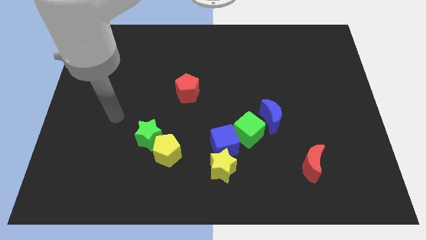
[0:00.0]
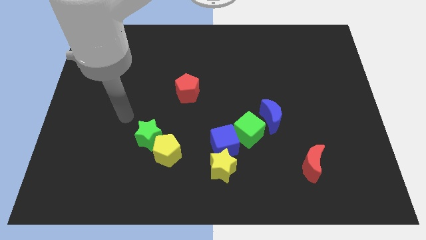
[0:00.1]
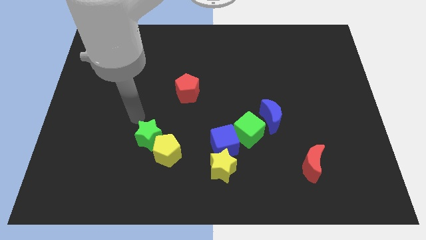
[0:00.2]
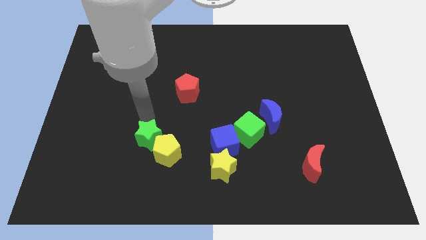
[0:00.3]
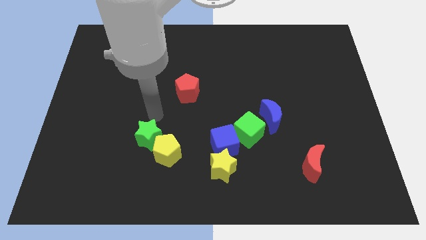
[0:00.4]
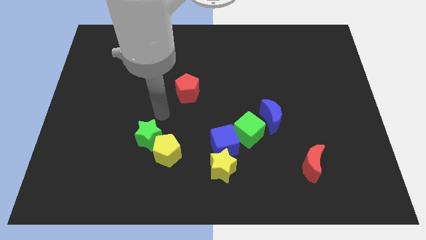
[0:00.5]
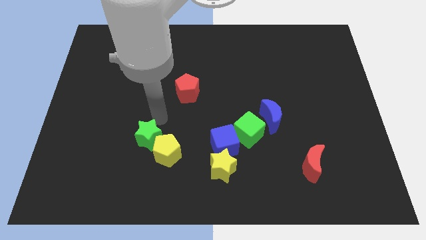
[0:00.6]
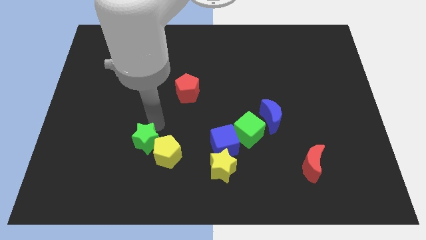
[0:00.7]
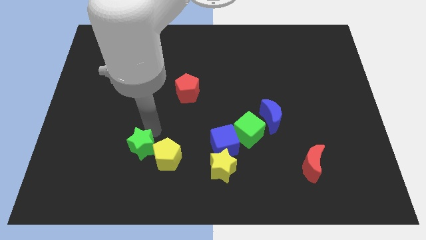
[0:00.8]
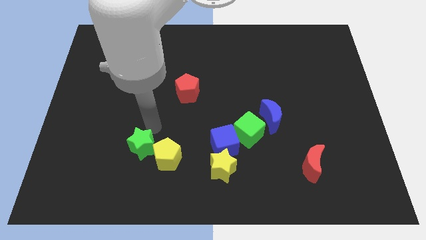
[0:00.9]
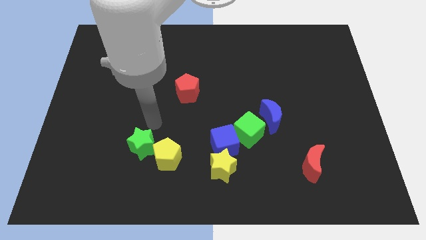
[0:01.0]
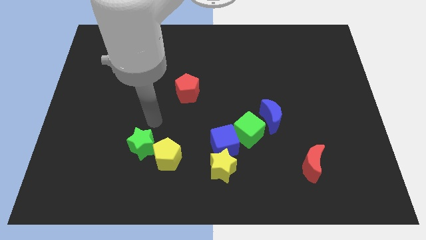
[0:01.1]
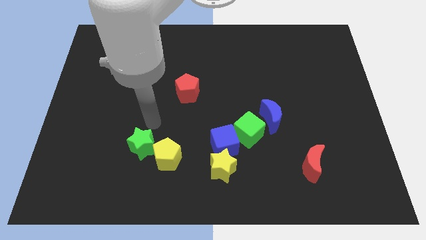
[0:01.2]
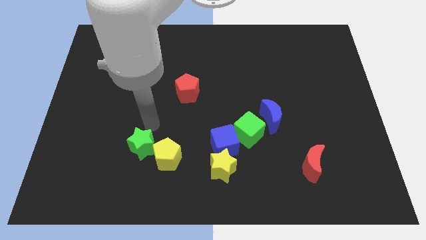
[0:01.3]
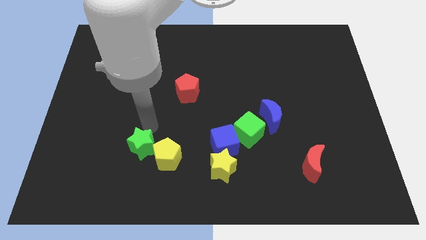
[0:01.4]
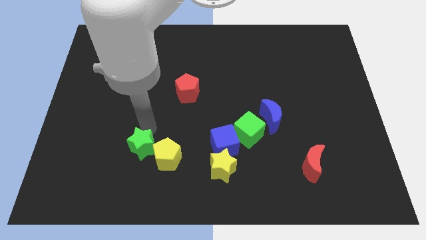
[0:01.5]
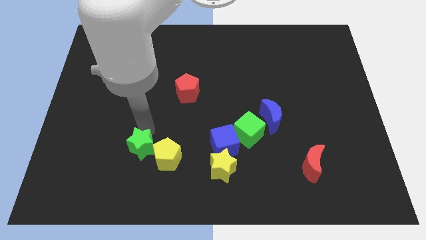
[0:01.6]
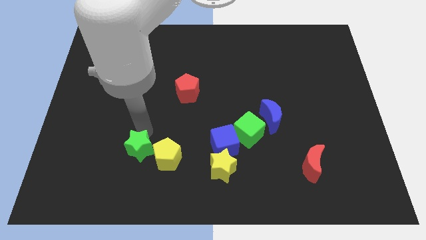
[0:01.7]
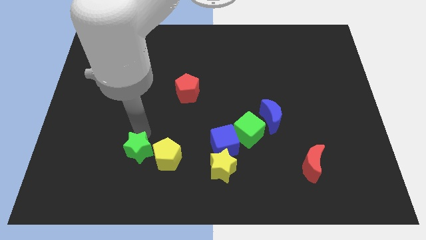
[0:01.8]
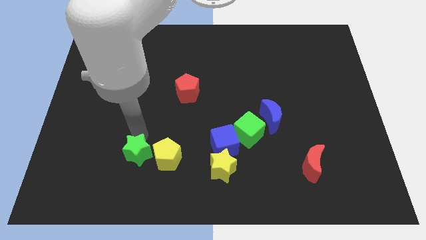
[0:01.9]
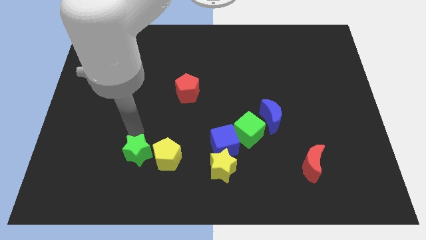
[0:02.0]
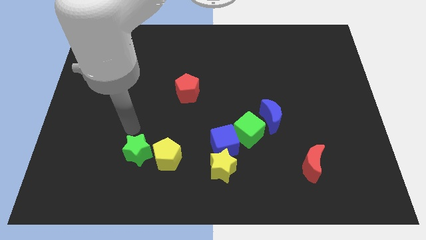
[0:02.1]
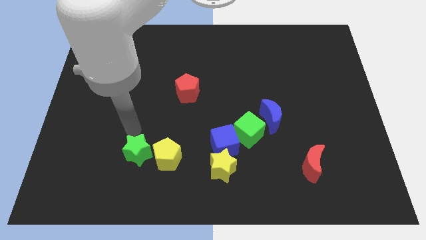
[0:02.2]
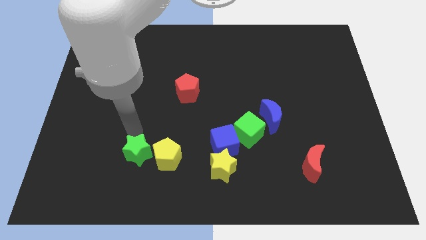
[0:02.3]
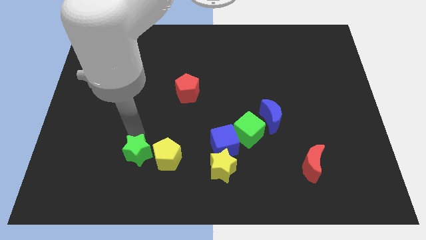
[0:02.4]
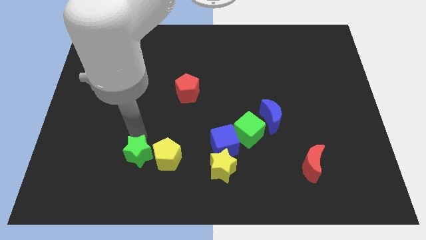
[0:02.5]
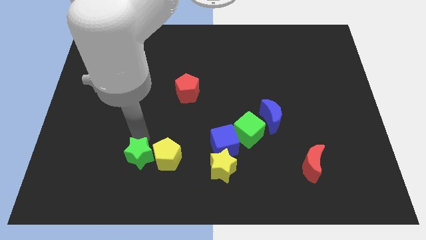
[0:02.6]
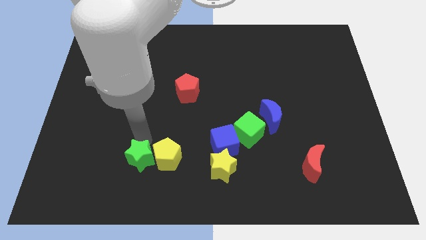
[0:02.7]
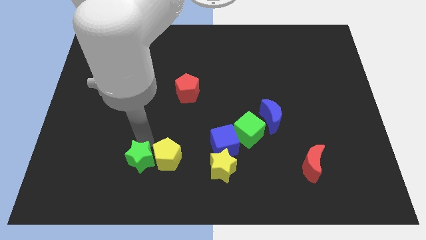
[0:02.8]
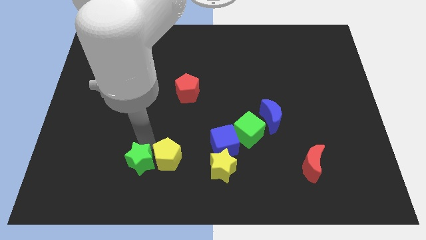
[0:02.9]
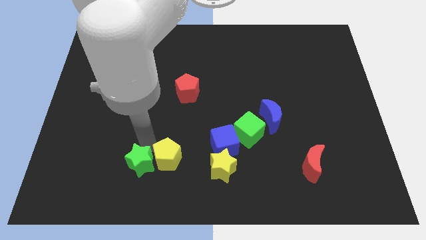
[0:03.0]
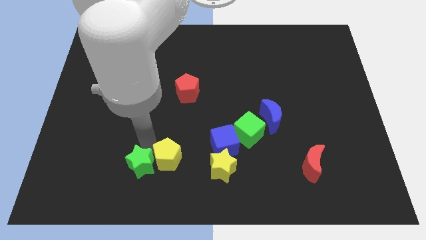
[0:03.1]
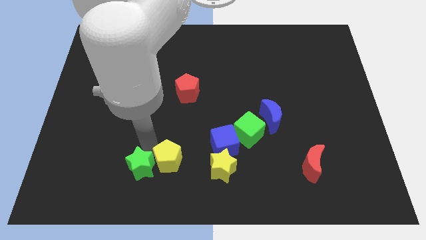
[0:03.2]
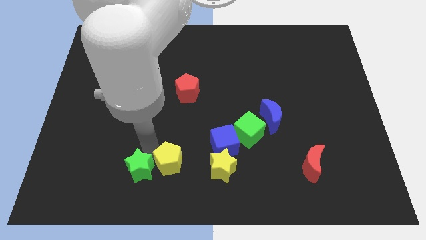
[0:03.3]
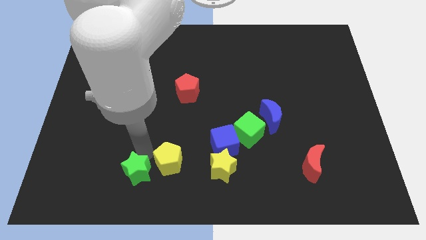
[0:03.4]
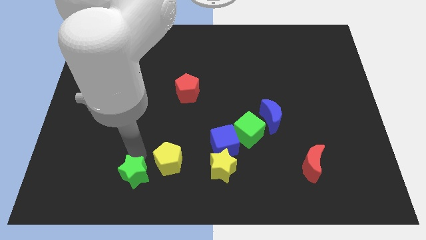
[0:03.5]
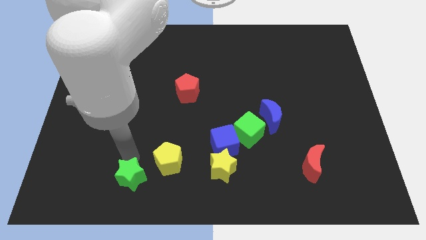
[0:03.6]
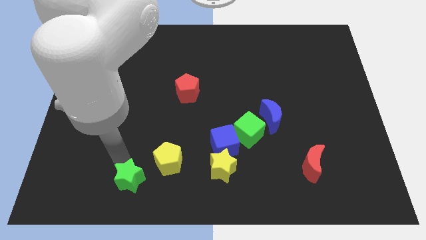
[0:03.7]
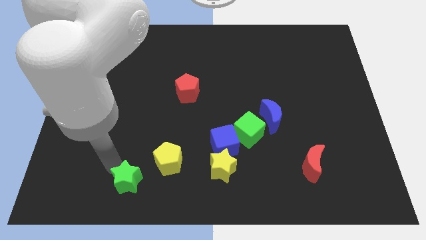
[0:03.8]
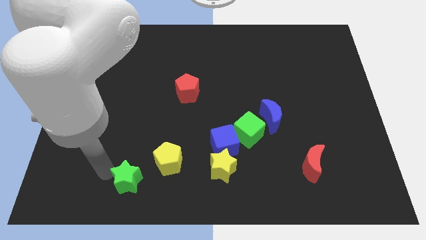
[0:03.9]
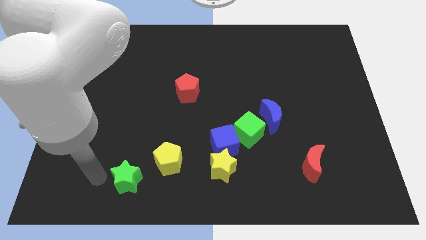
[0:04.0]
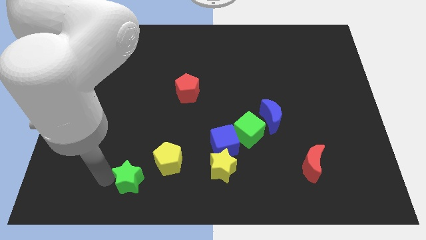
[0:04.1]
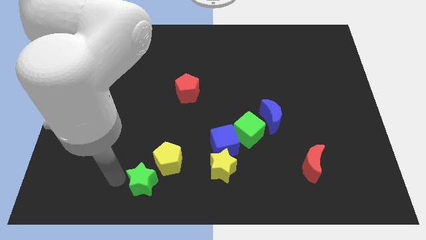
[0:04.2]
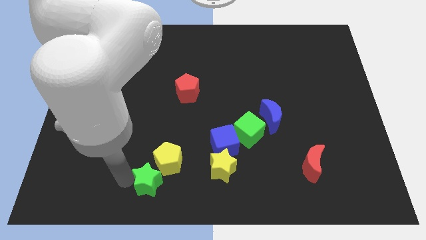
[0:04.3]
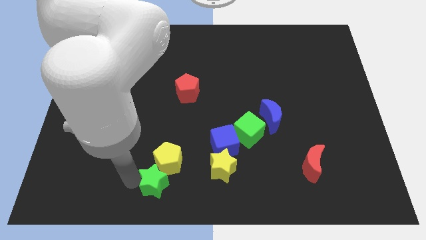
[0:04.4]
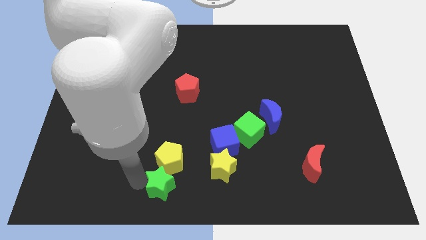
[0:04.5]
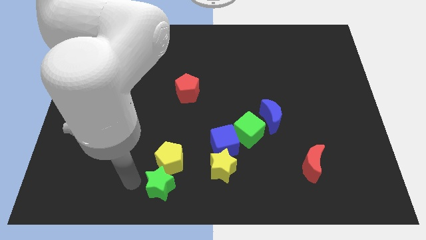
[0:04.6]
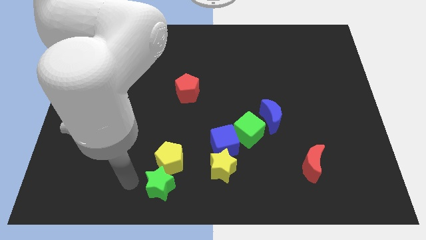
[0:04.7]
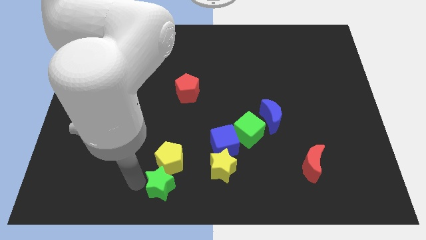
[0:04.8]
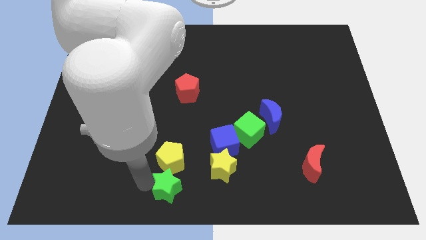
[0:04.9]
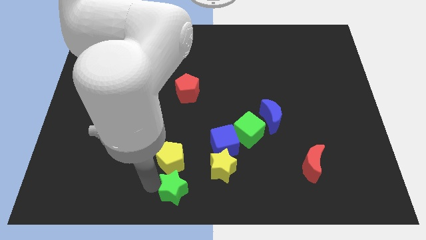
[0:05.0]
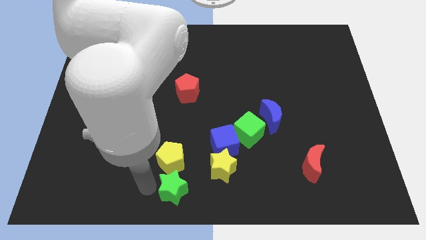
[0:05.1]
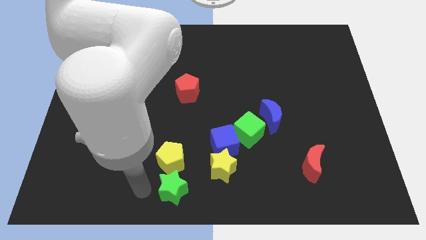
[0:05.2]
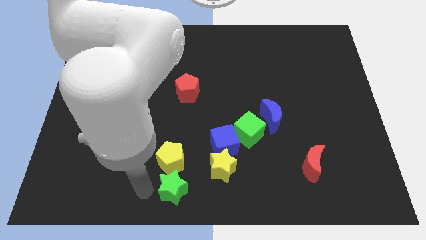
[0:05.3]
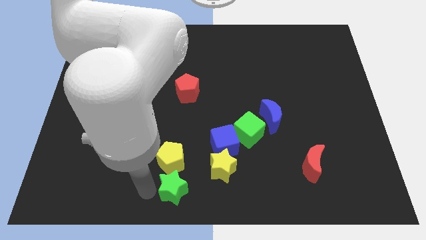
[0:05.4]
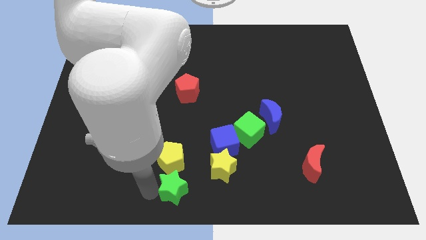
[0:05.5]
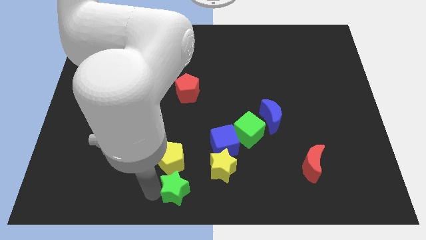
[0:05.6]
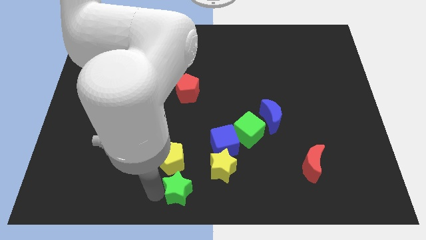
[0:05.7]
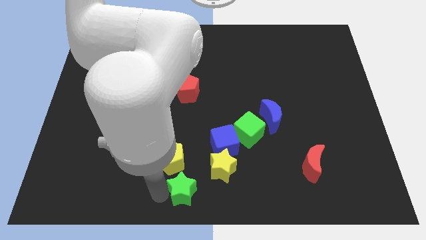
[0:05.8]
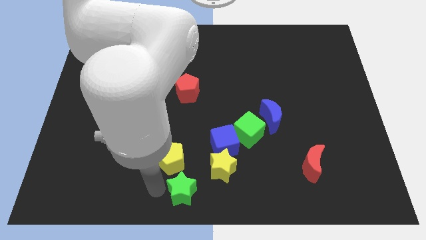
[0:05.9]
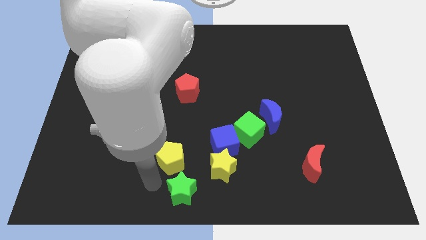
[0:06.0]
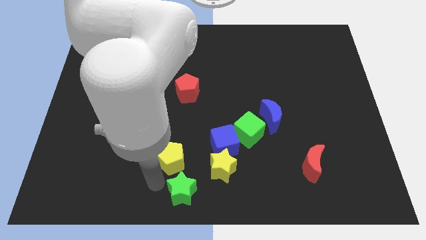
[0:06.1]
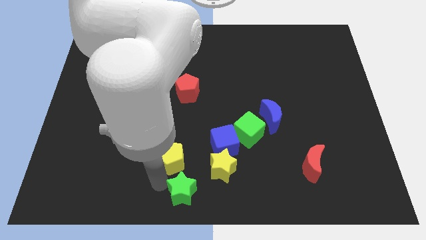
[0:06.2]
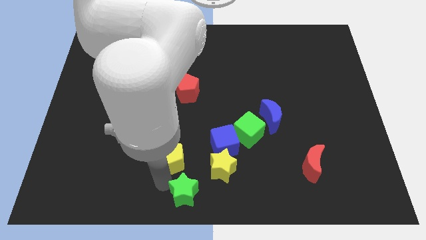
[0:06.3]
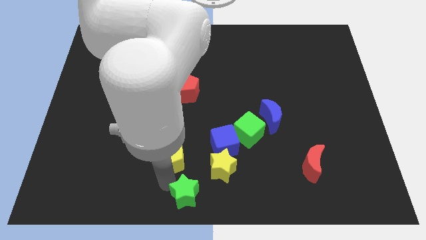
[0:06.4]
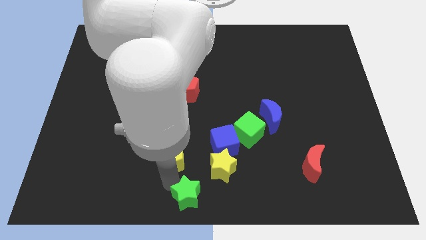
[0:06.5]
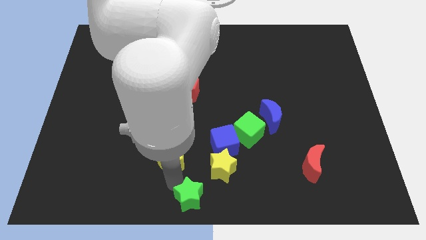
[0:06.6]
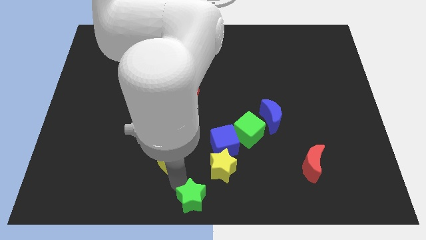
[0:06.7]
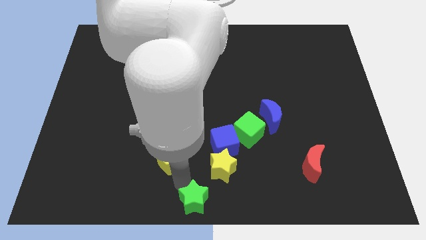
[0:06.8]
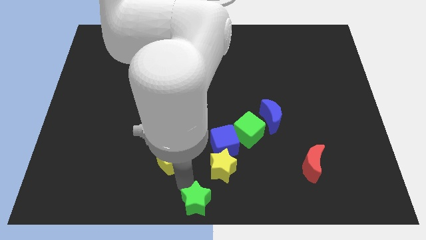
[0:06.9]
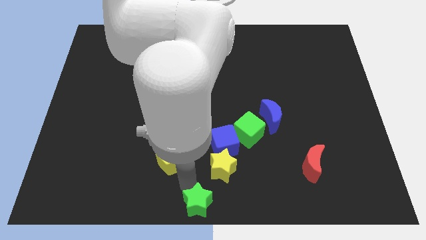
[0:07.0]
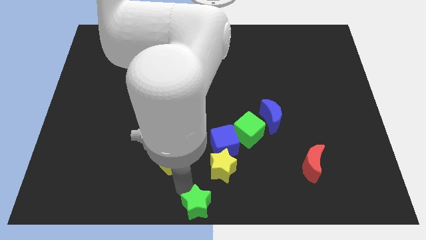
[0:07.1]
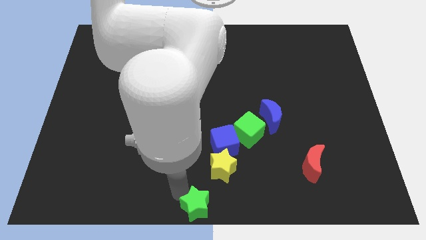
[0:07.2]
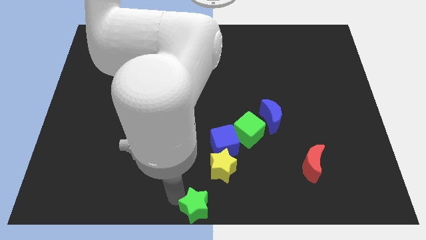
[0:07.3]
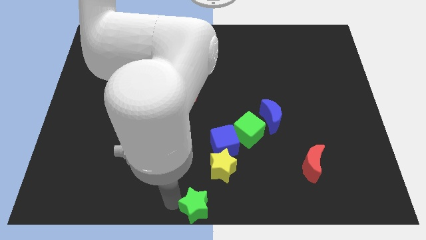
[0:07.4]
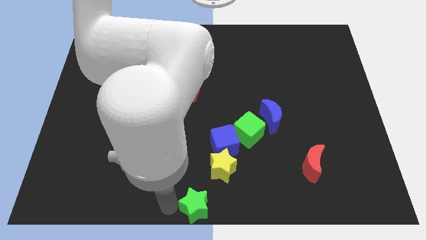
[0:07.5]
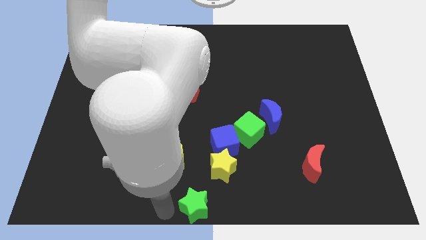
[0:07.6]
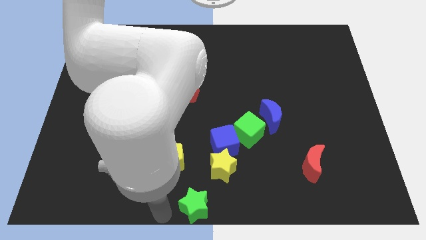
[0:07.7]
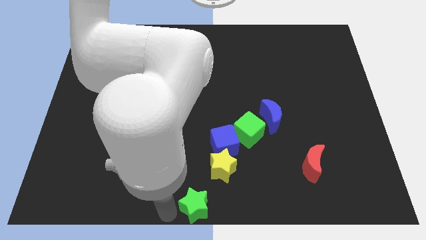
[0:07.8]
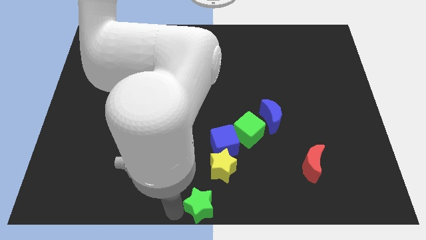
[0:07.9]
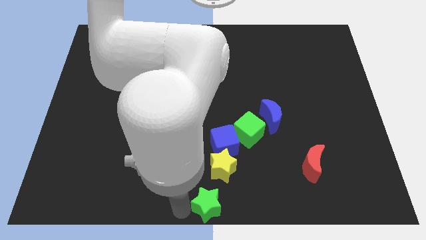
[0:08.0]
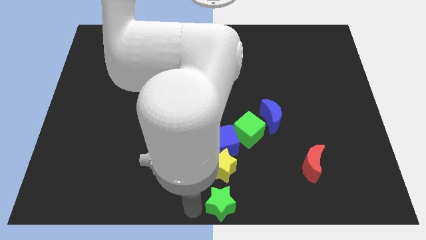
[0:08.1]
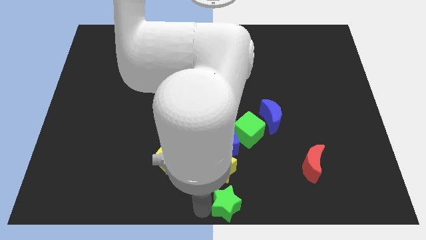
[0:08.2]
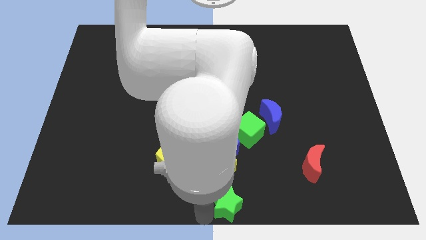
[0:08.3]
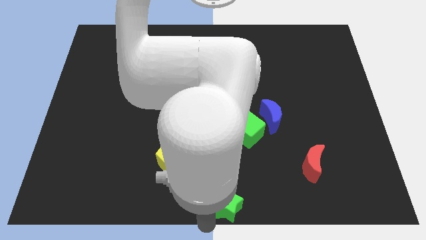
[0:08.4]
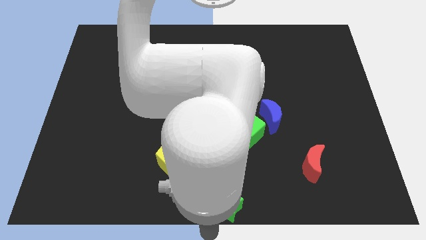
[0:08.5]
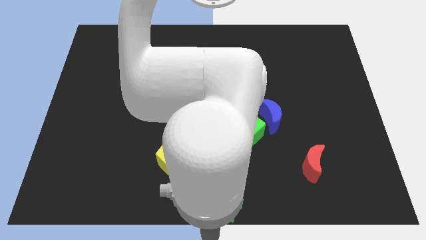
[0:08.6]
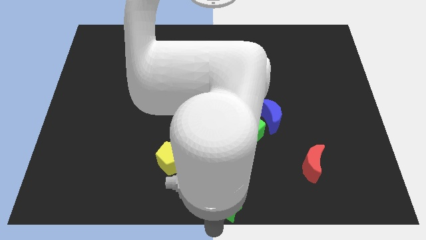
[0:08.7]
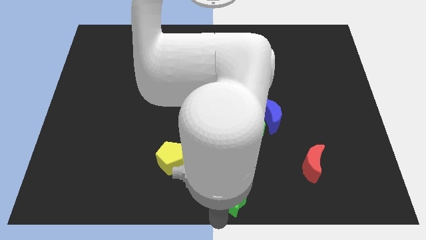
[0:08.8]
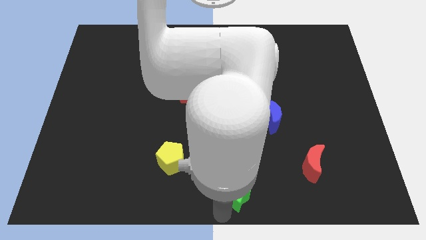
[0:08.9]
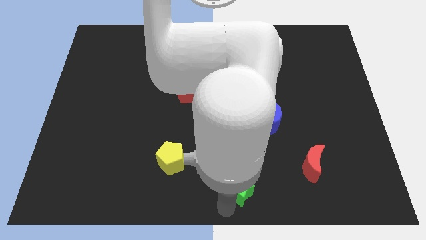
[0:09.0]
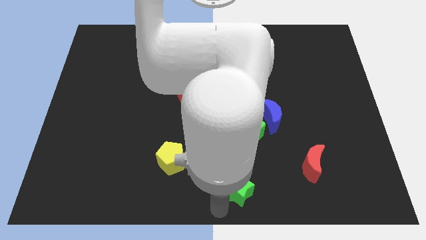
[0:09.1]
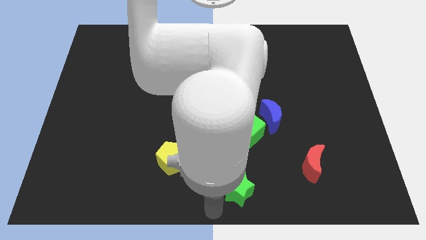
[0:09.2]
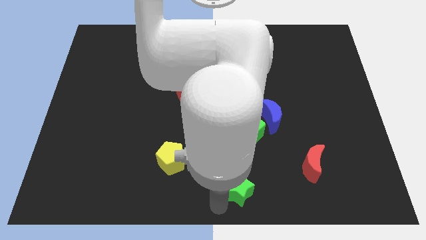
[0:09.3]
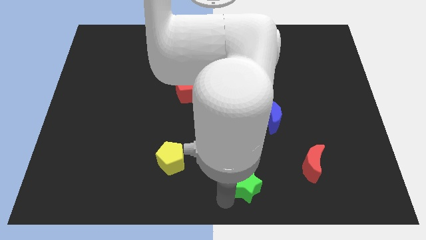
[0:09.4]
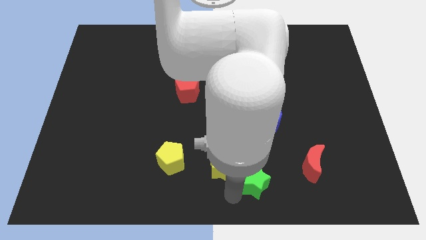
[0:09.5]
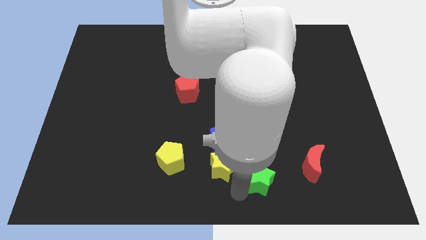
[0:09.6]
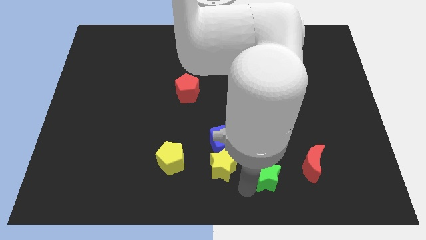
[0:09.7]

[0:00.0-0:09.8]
push the green star to the bottom side of the blue moon
